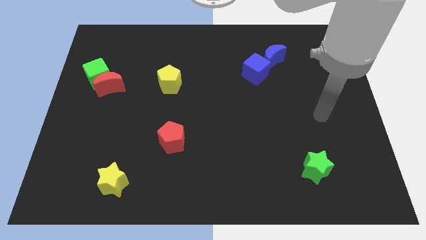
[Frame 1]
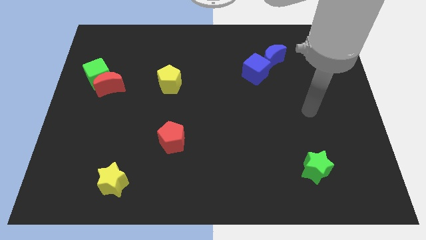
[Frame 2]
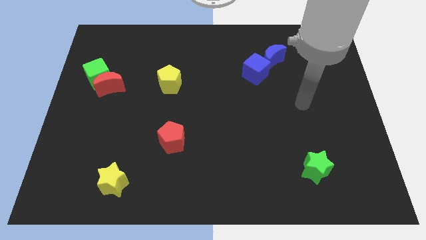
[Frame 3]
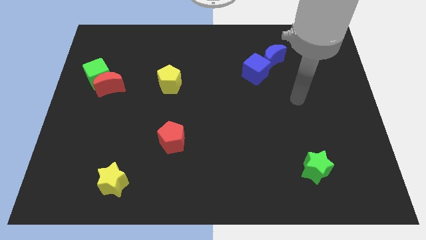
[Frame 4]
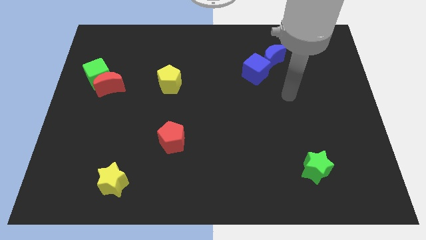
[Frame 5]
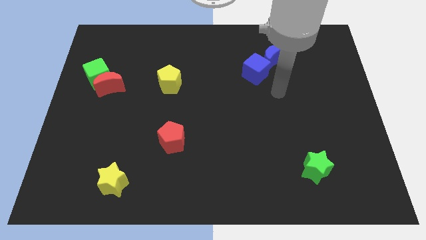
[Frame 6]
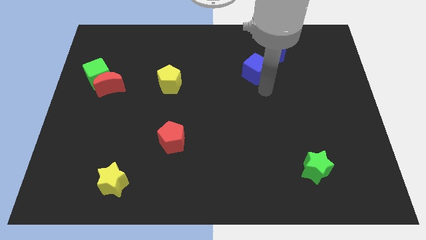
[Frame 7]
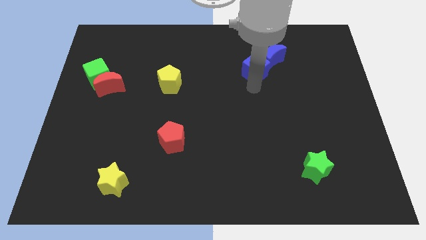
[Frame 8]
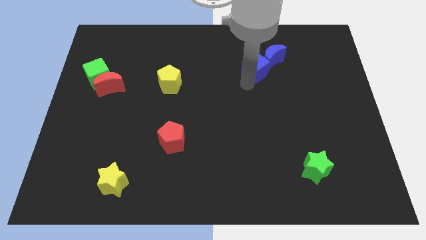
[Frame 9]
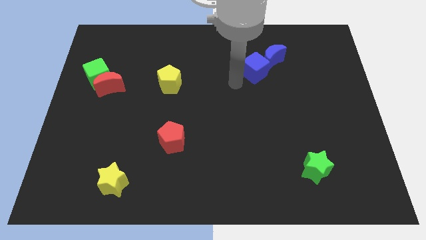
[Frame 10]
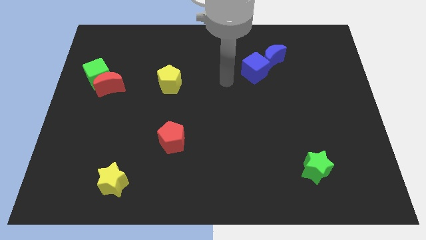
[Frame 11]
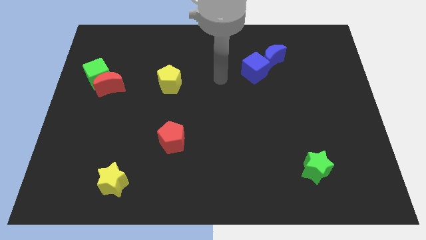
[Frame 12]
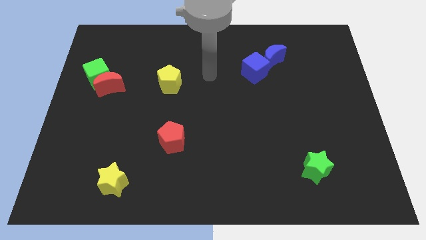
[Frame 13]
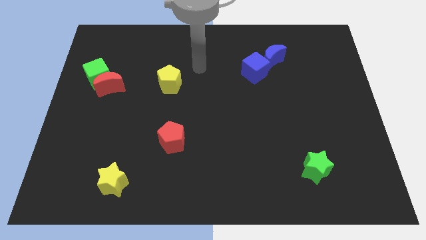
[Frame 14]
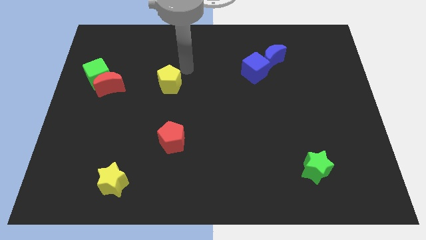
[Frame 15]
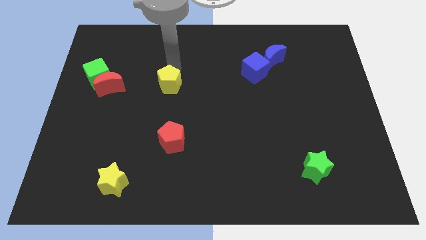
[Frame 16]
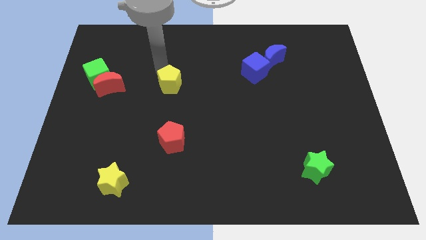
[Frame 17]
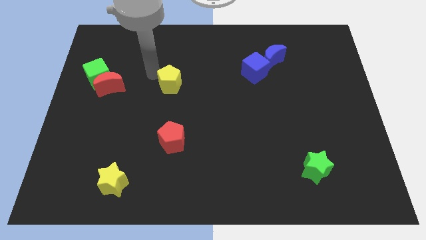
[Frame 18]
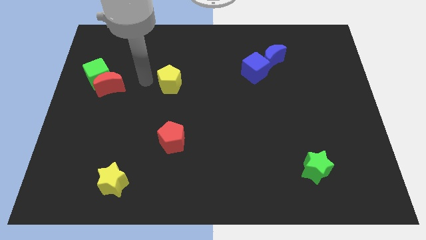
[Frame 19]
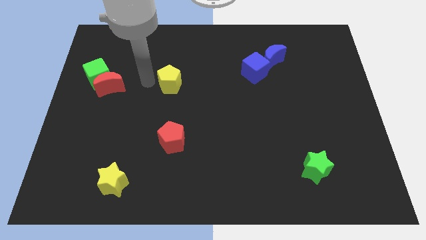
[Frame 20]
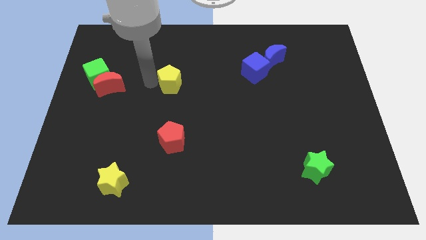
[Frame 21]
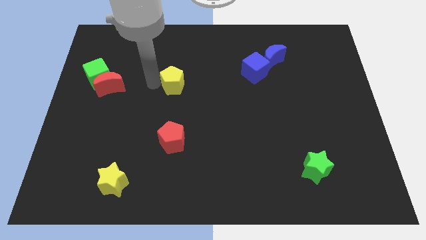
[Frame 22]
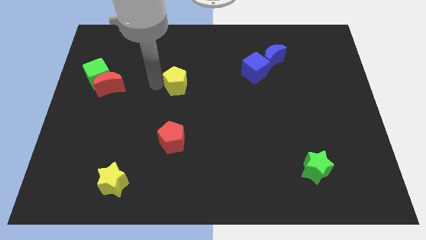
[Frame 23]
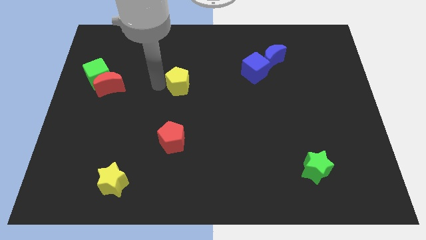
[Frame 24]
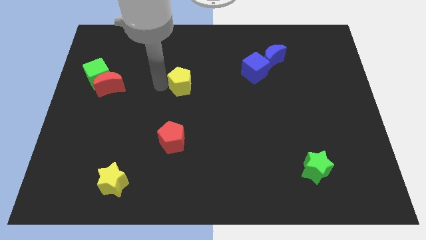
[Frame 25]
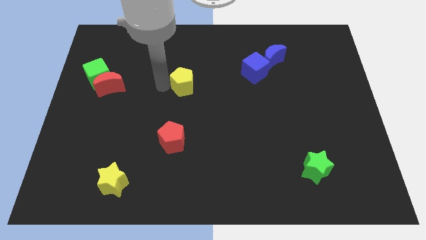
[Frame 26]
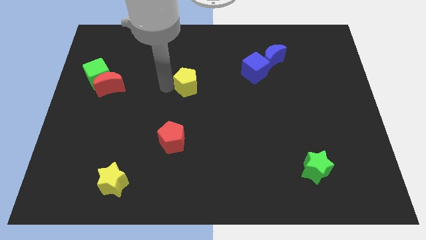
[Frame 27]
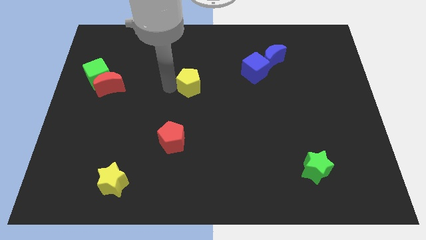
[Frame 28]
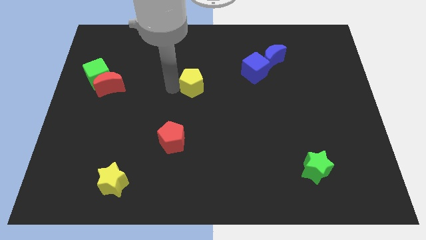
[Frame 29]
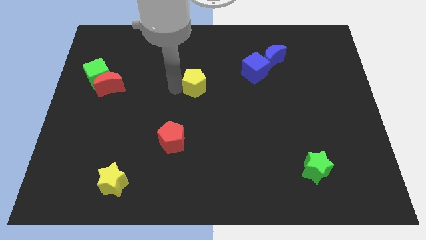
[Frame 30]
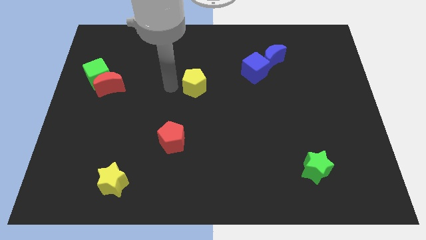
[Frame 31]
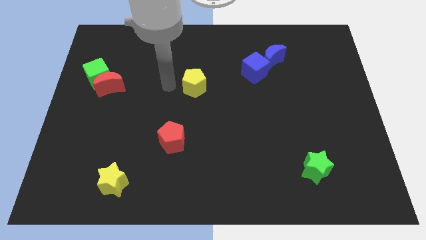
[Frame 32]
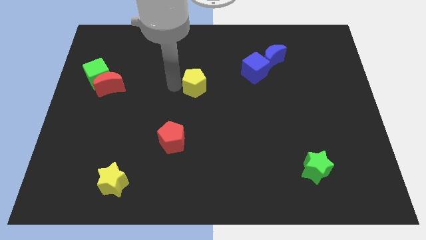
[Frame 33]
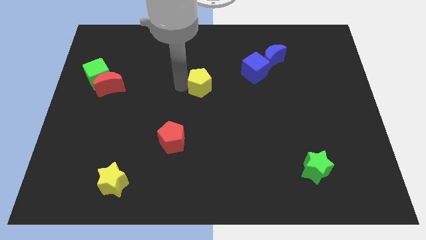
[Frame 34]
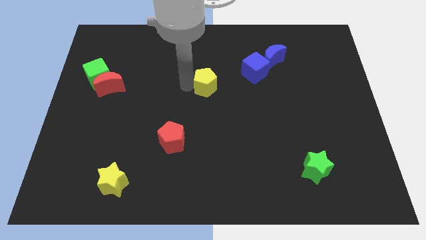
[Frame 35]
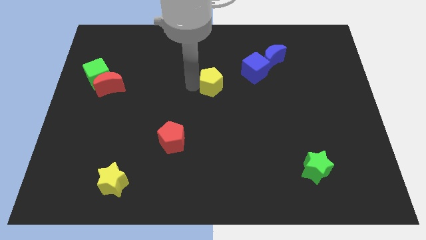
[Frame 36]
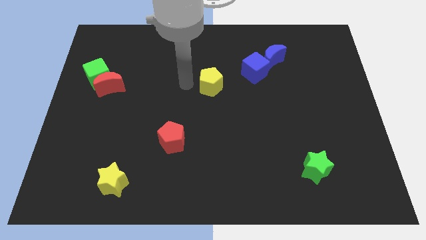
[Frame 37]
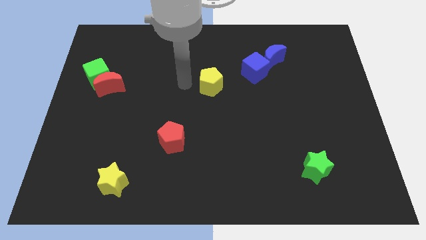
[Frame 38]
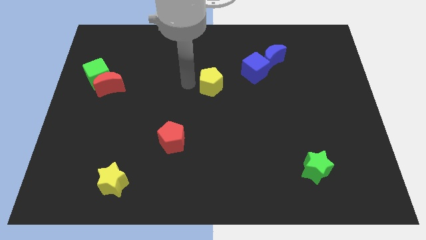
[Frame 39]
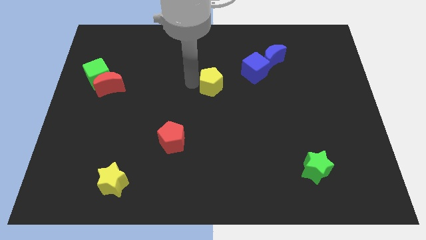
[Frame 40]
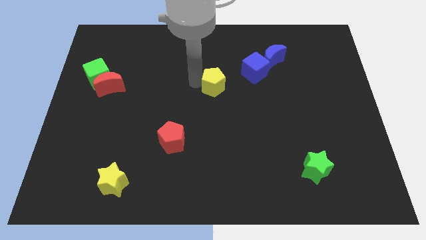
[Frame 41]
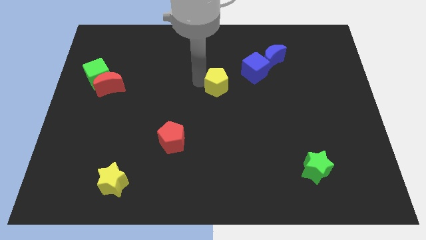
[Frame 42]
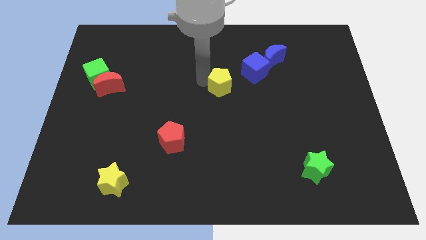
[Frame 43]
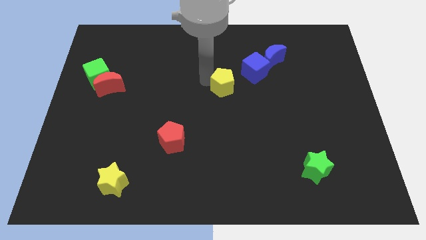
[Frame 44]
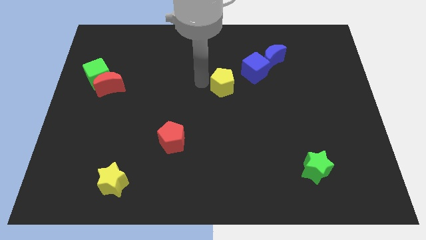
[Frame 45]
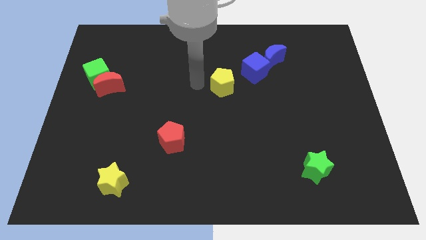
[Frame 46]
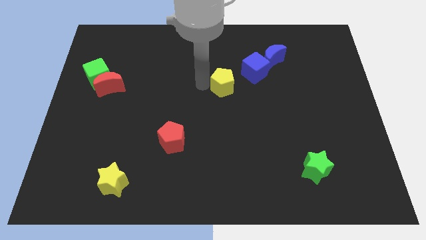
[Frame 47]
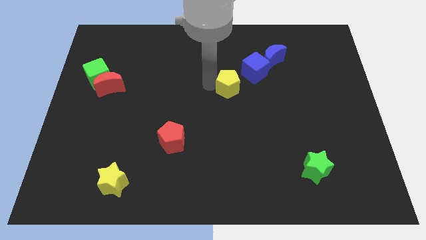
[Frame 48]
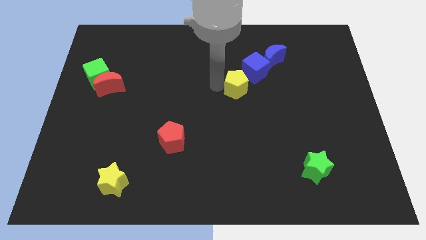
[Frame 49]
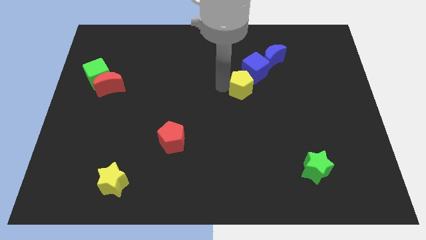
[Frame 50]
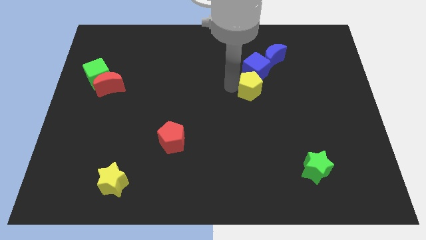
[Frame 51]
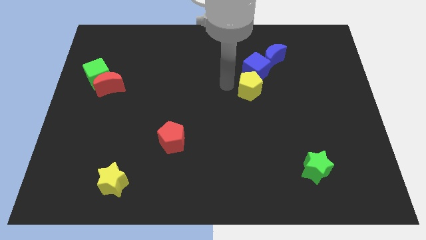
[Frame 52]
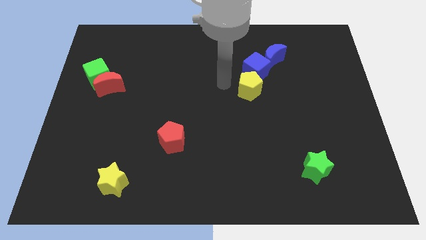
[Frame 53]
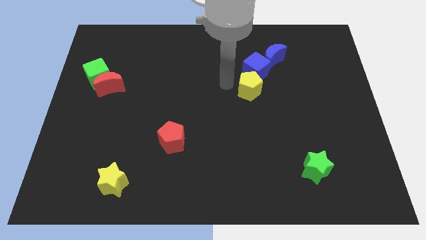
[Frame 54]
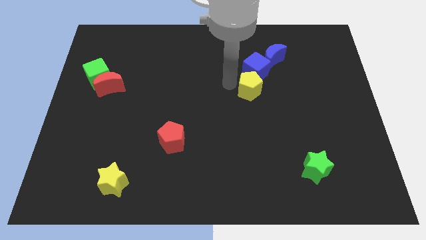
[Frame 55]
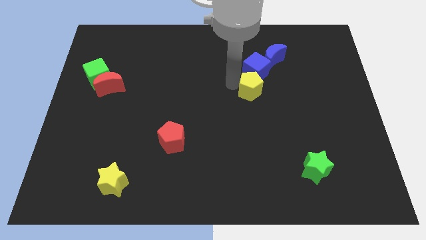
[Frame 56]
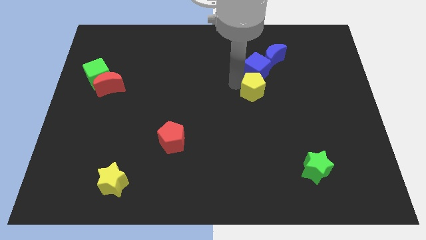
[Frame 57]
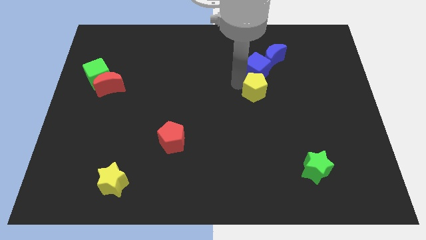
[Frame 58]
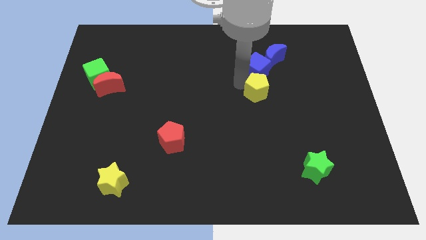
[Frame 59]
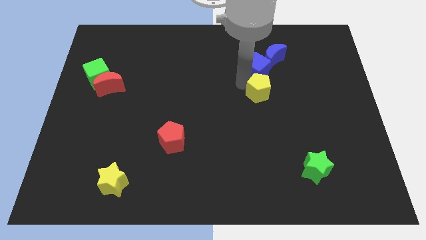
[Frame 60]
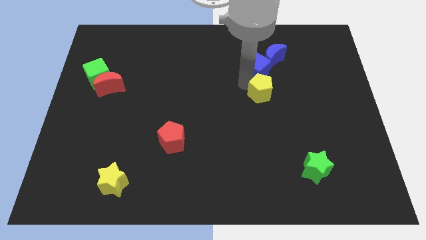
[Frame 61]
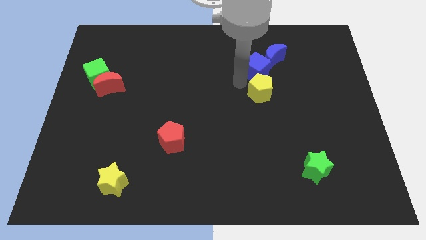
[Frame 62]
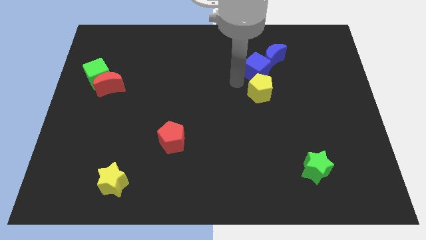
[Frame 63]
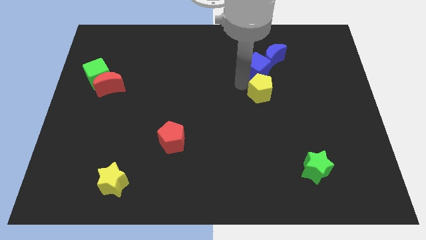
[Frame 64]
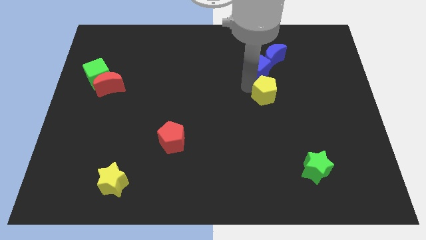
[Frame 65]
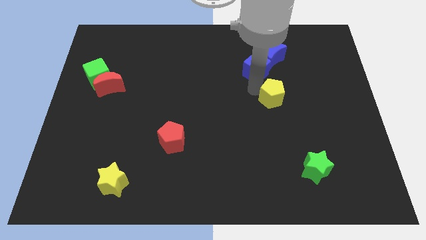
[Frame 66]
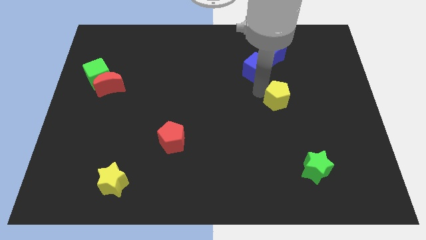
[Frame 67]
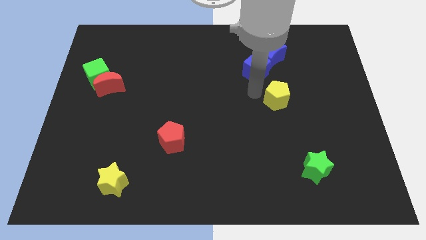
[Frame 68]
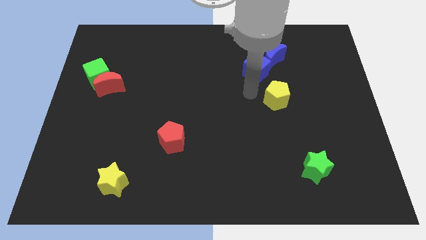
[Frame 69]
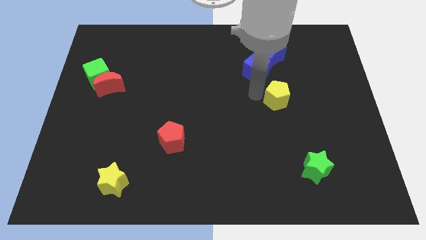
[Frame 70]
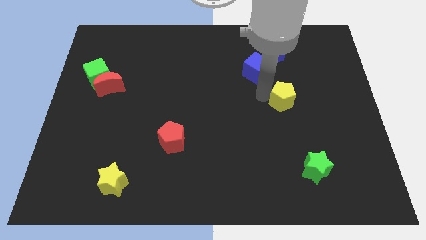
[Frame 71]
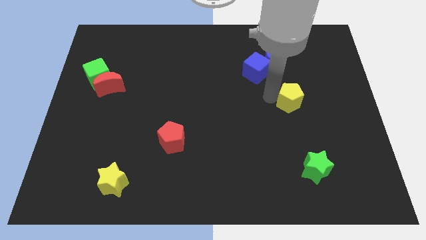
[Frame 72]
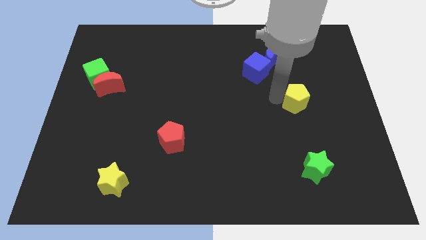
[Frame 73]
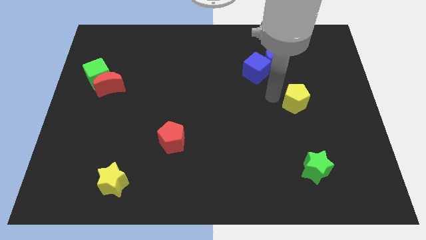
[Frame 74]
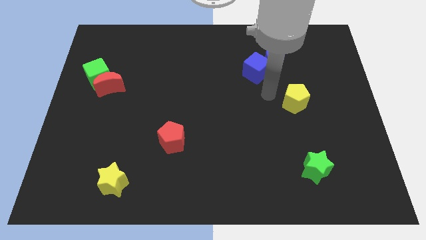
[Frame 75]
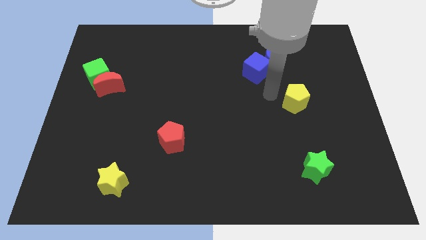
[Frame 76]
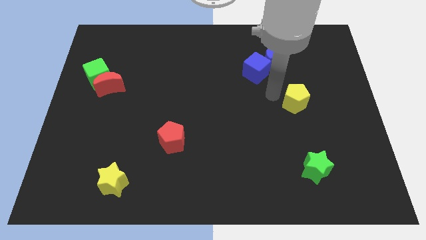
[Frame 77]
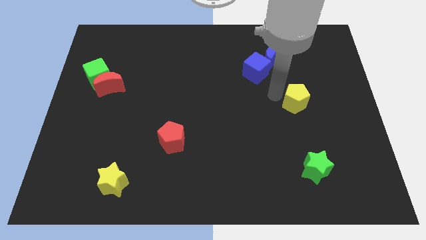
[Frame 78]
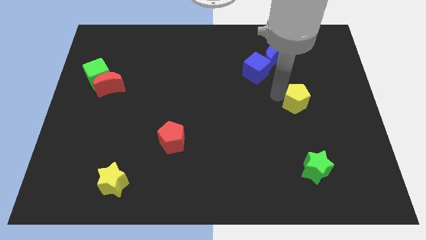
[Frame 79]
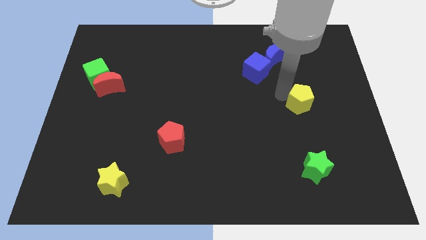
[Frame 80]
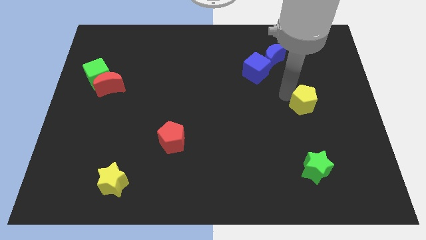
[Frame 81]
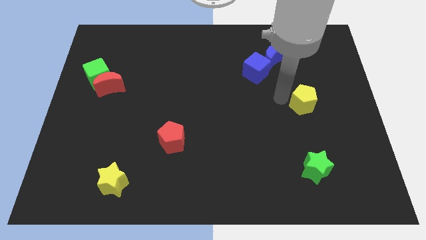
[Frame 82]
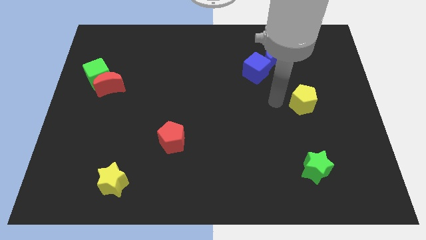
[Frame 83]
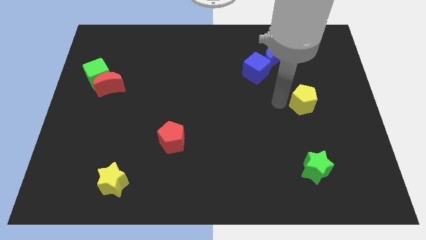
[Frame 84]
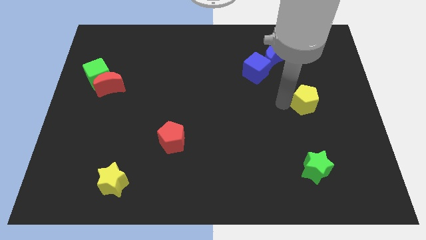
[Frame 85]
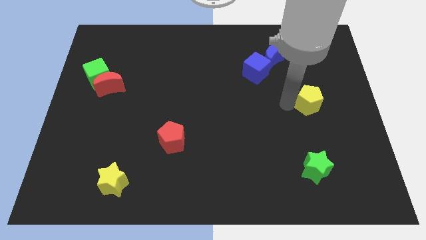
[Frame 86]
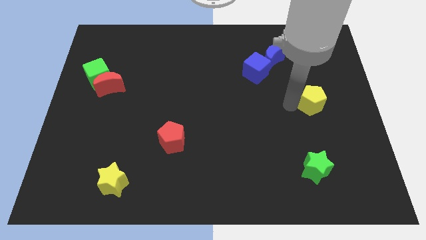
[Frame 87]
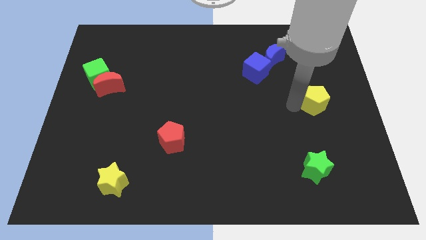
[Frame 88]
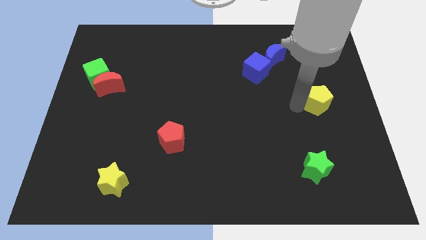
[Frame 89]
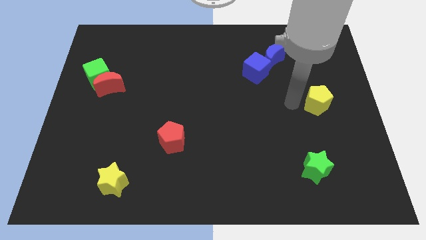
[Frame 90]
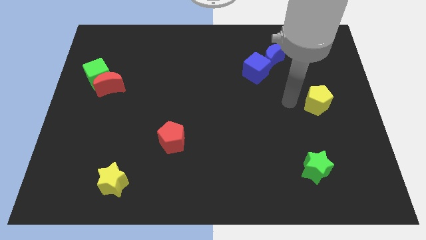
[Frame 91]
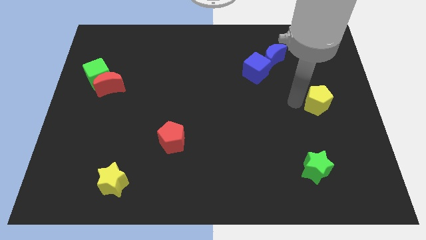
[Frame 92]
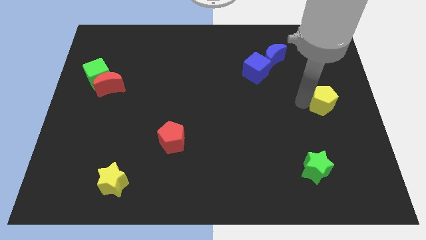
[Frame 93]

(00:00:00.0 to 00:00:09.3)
move the yellow pentagon to the center right
